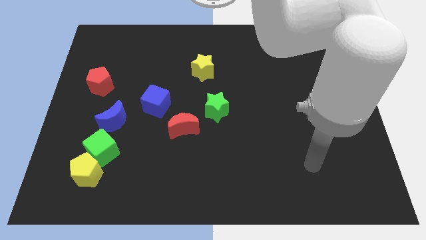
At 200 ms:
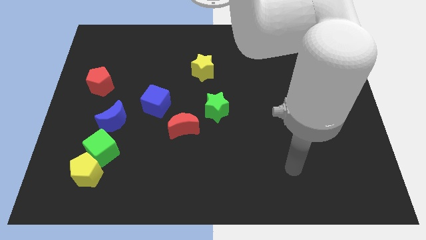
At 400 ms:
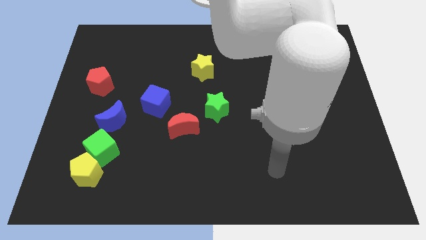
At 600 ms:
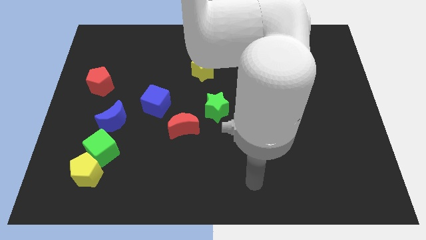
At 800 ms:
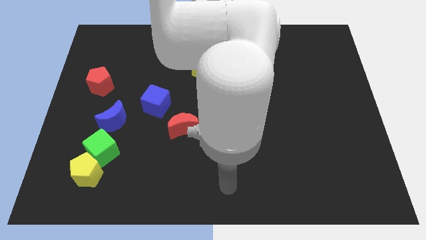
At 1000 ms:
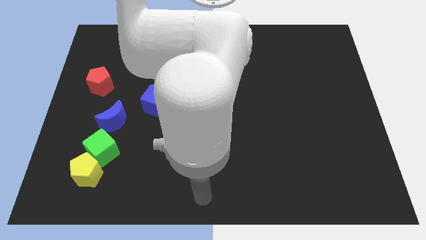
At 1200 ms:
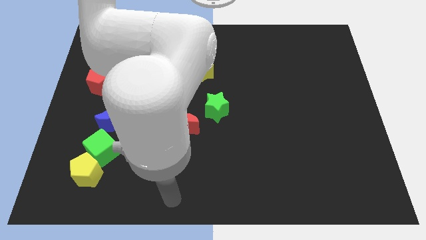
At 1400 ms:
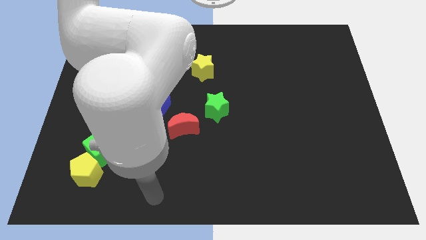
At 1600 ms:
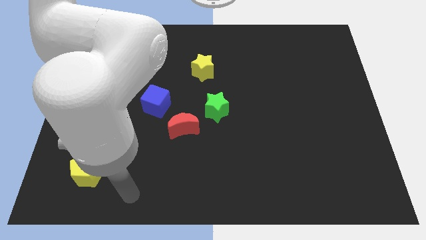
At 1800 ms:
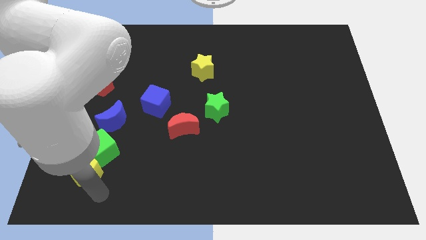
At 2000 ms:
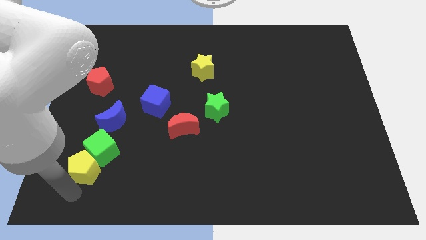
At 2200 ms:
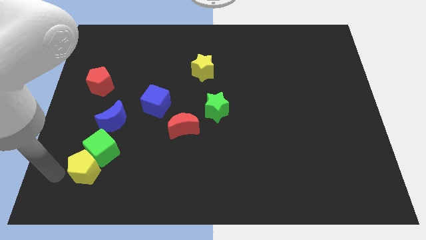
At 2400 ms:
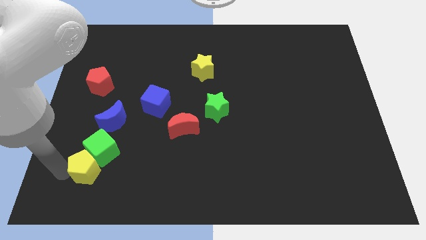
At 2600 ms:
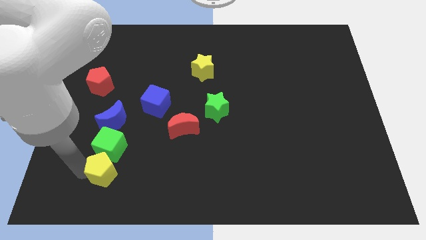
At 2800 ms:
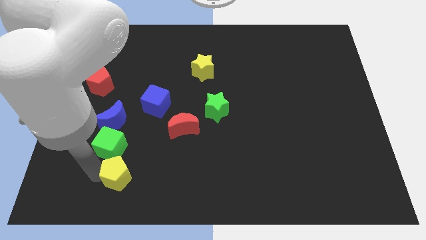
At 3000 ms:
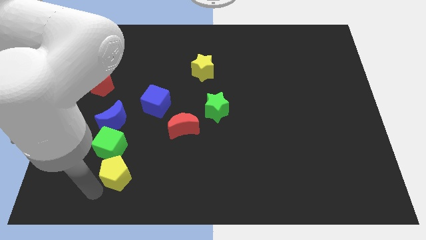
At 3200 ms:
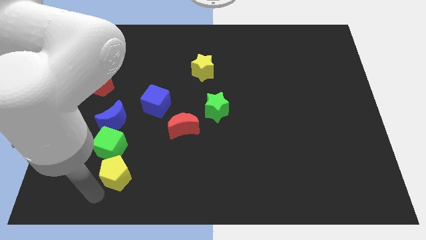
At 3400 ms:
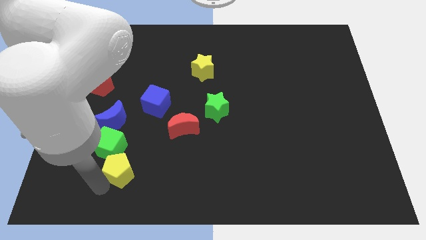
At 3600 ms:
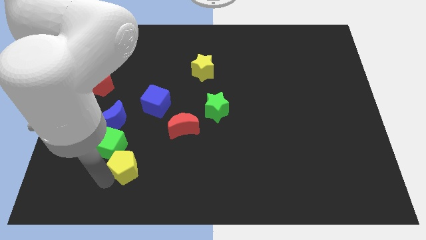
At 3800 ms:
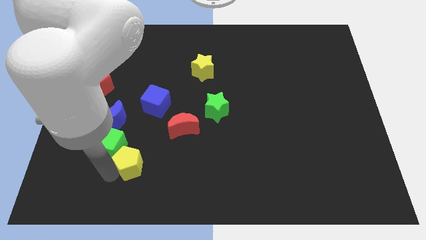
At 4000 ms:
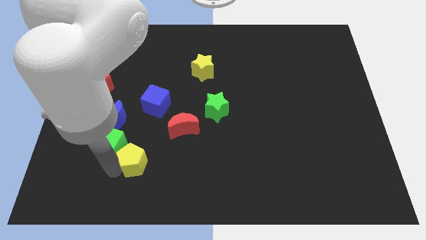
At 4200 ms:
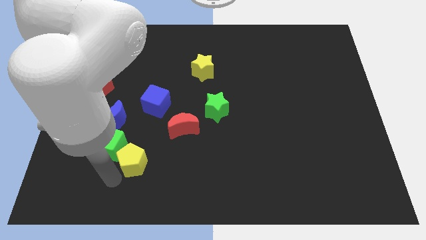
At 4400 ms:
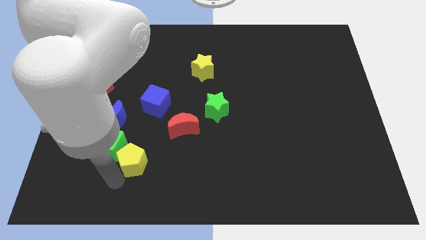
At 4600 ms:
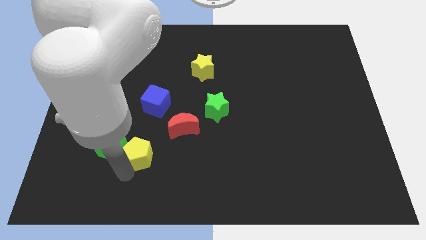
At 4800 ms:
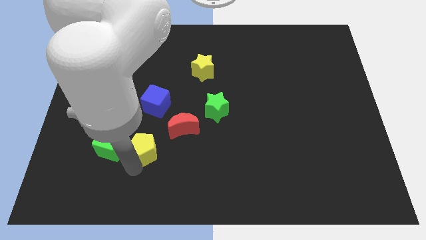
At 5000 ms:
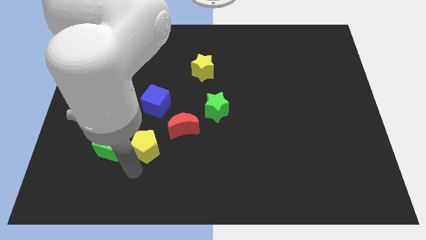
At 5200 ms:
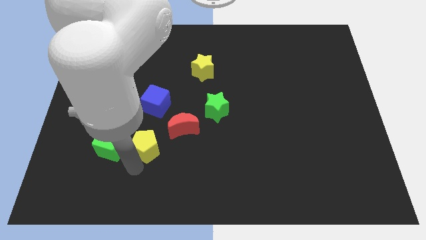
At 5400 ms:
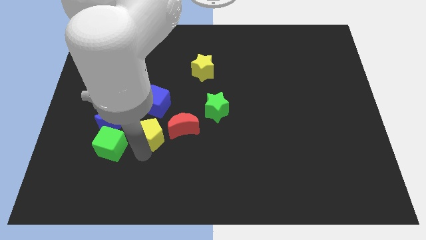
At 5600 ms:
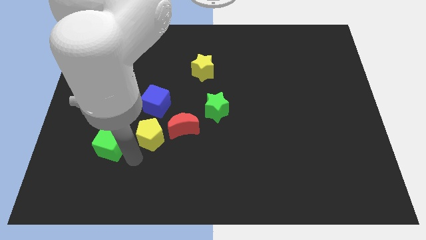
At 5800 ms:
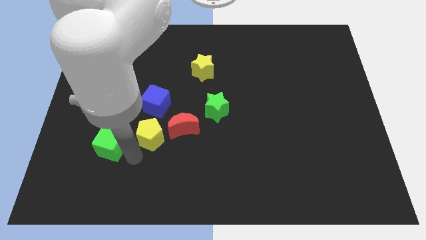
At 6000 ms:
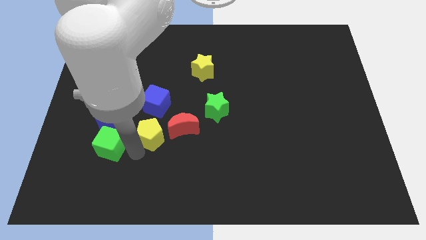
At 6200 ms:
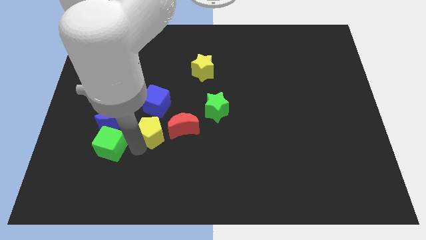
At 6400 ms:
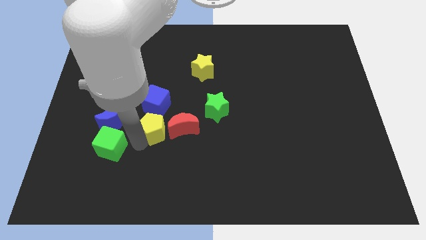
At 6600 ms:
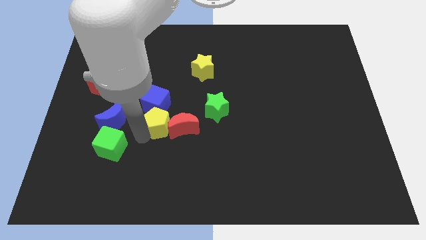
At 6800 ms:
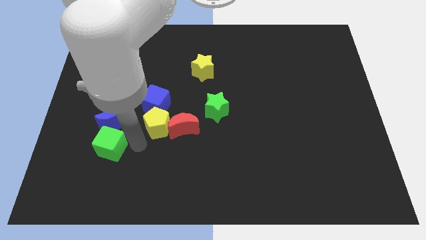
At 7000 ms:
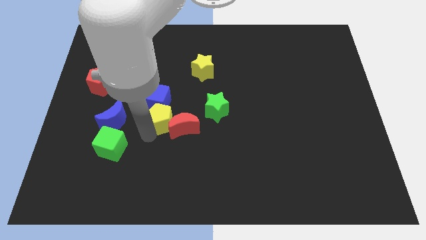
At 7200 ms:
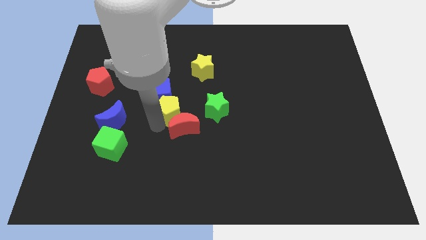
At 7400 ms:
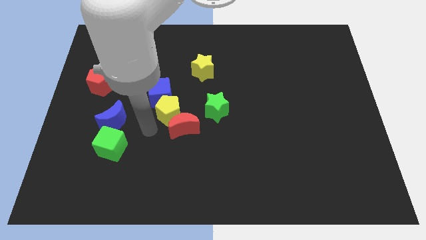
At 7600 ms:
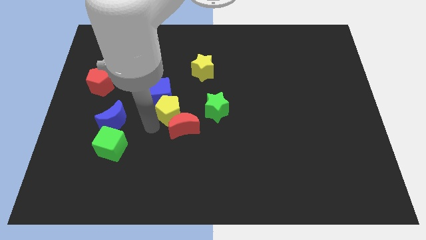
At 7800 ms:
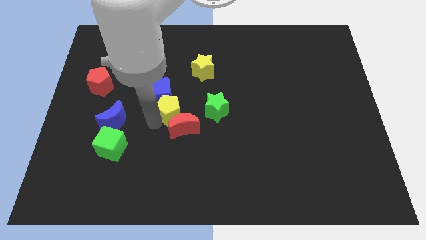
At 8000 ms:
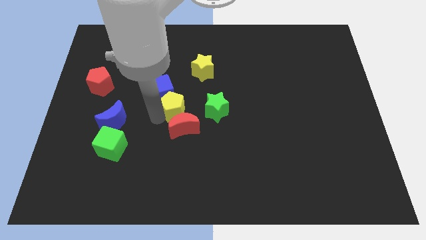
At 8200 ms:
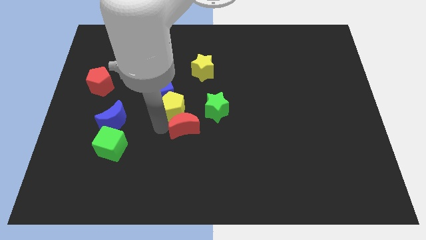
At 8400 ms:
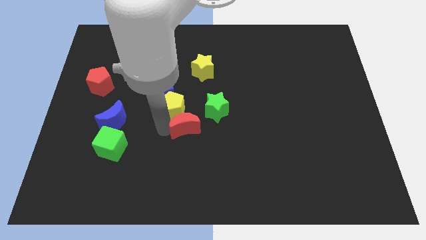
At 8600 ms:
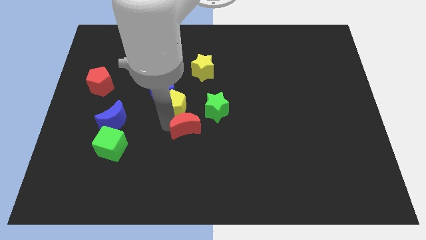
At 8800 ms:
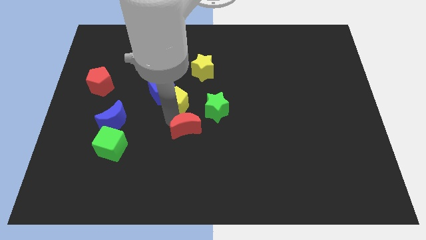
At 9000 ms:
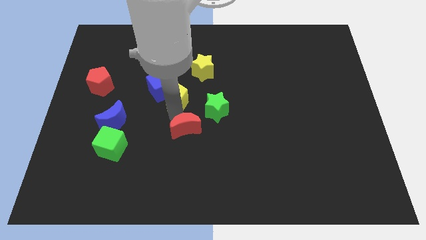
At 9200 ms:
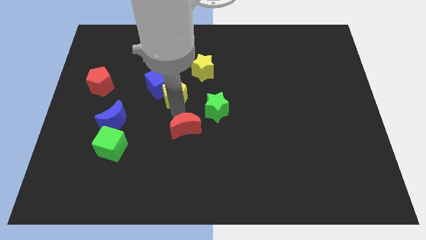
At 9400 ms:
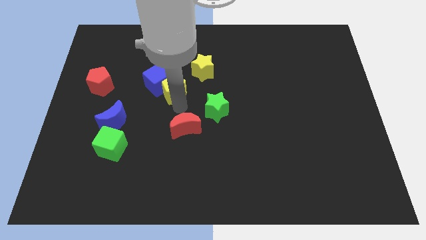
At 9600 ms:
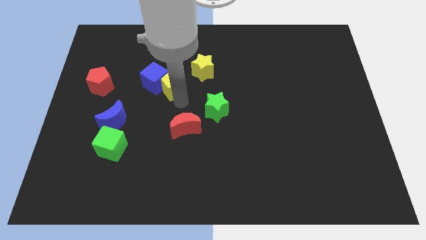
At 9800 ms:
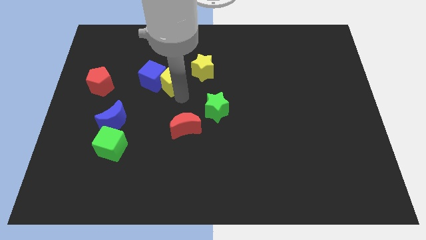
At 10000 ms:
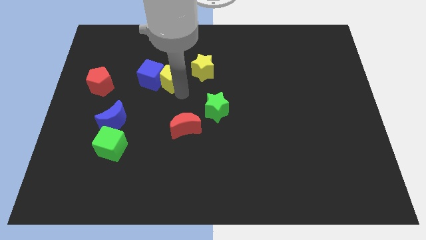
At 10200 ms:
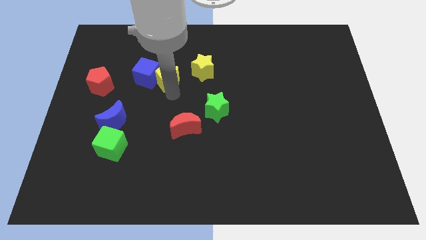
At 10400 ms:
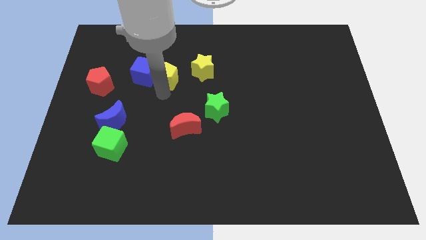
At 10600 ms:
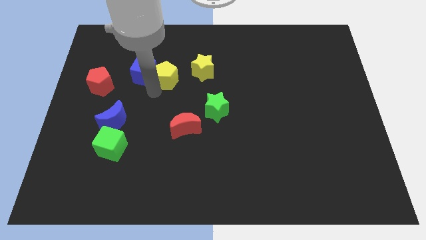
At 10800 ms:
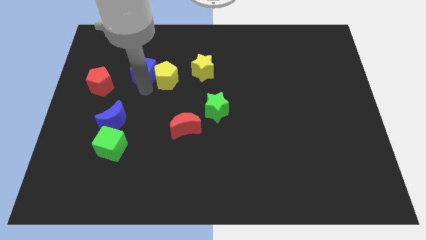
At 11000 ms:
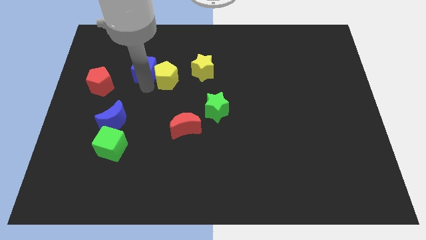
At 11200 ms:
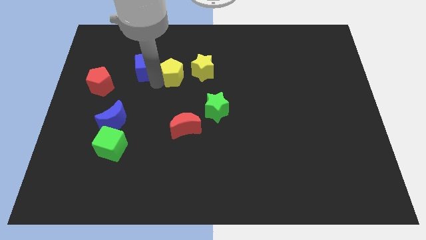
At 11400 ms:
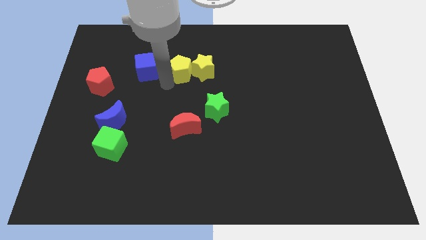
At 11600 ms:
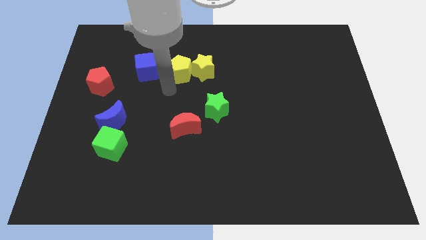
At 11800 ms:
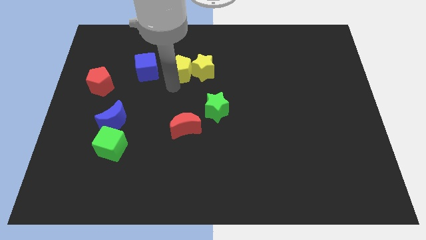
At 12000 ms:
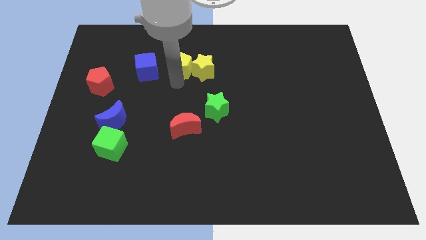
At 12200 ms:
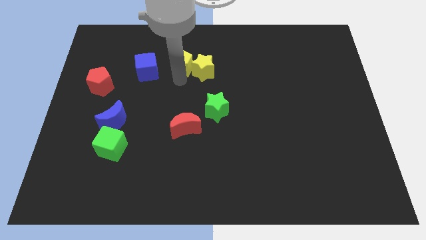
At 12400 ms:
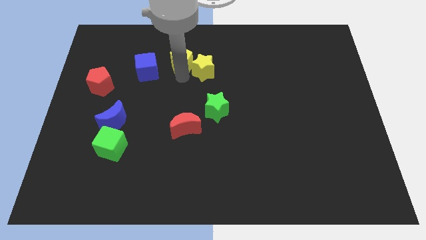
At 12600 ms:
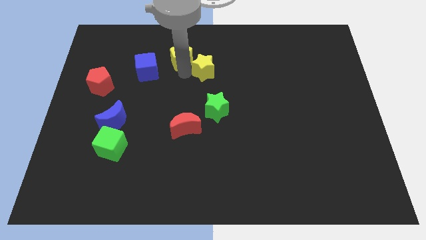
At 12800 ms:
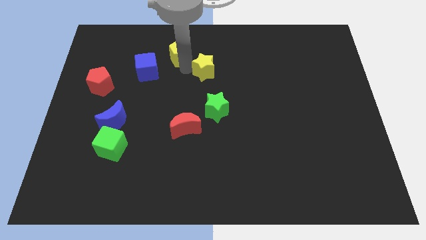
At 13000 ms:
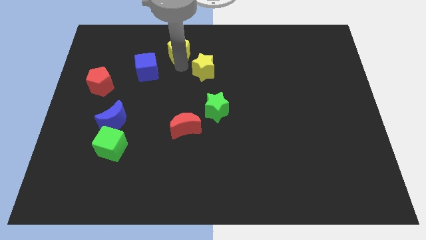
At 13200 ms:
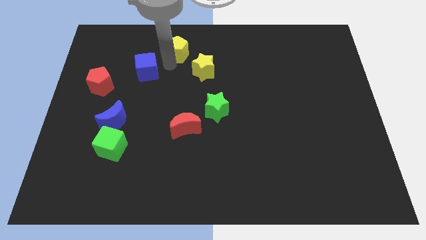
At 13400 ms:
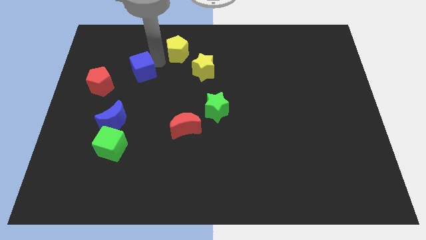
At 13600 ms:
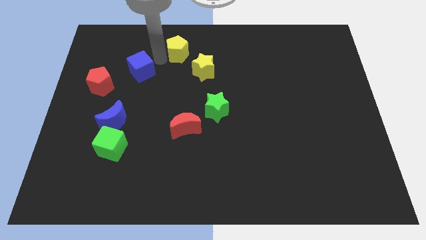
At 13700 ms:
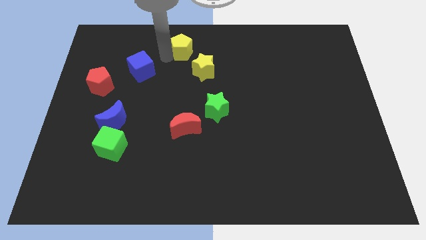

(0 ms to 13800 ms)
put the yellow pentagon to the top
